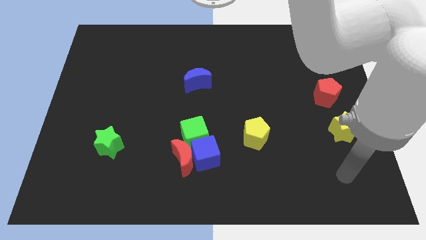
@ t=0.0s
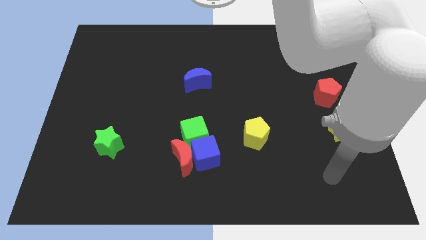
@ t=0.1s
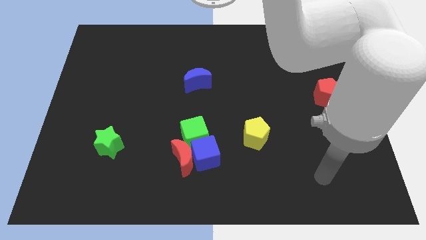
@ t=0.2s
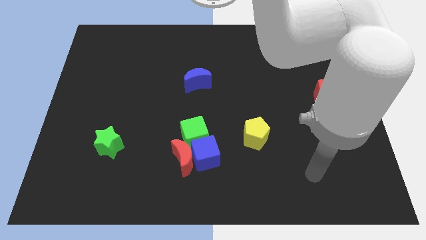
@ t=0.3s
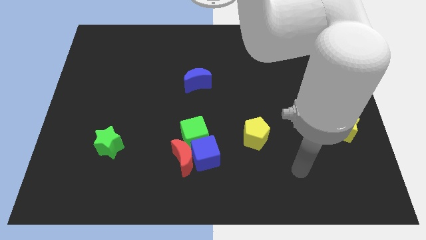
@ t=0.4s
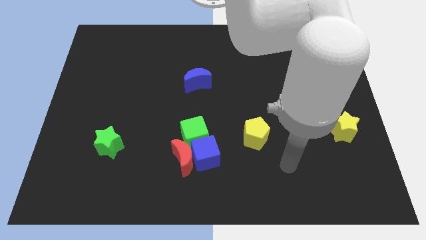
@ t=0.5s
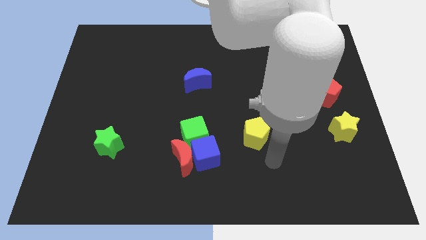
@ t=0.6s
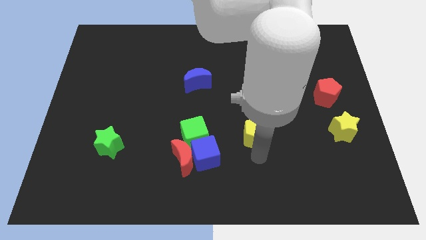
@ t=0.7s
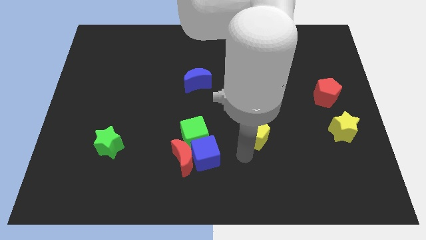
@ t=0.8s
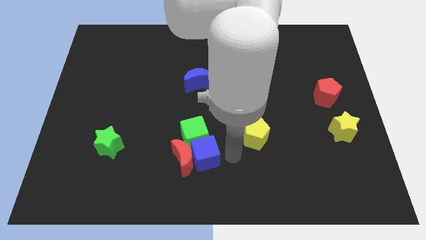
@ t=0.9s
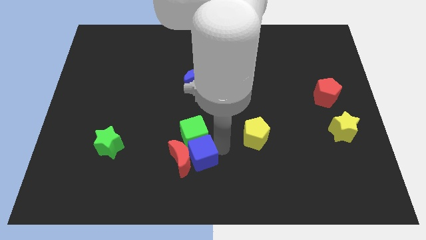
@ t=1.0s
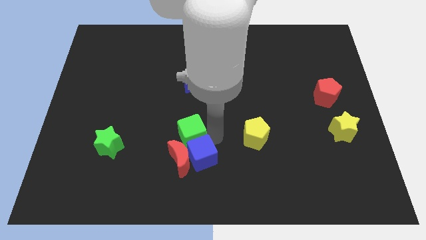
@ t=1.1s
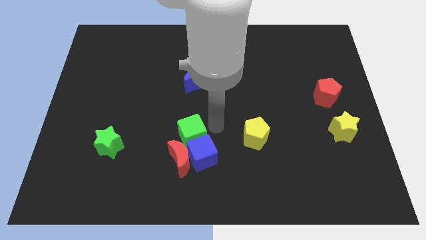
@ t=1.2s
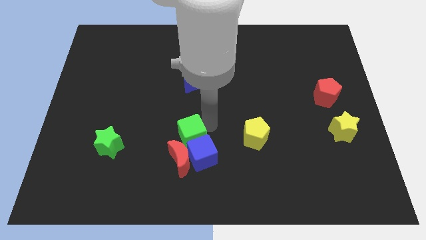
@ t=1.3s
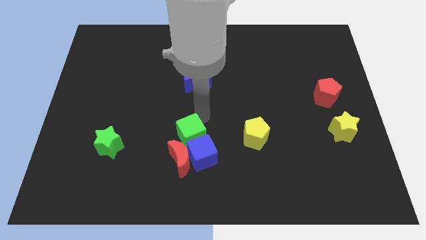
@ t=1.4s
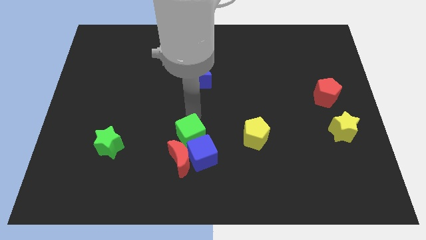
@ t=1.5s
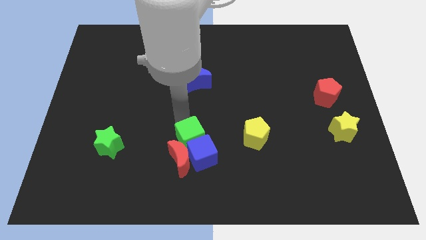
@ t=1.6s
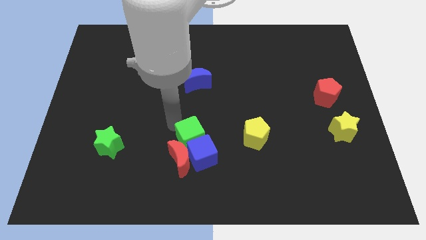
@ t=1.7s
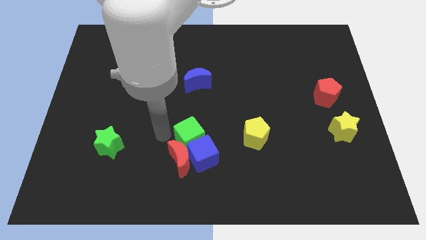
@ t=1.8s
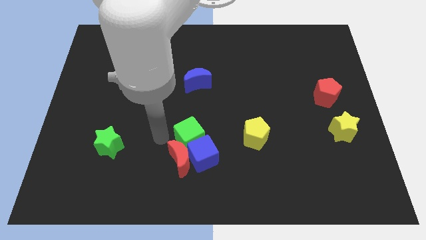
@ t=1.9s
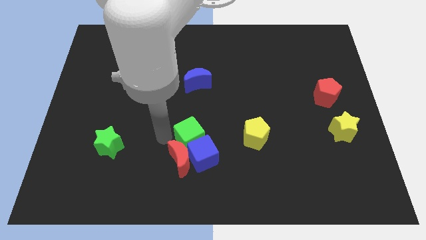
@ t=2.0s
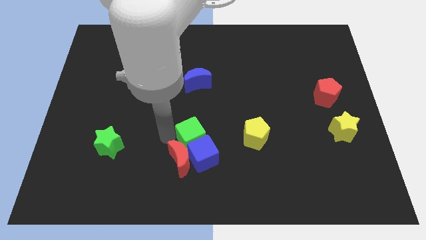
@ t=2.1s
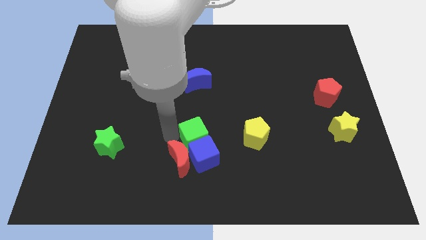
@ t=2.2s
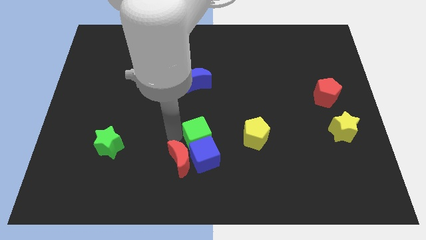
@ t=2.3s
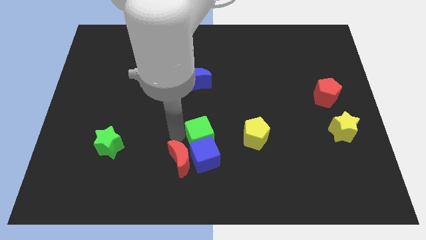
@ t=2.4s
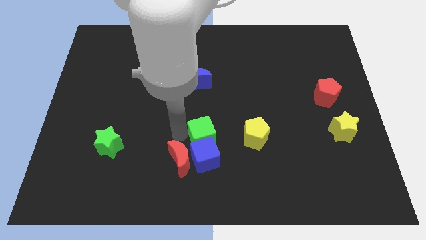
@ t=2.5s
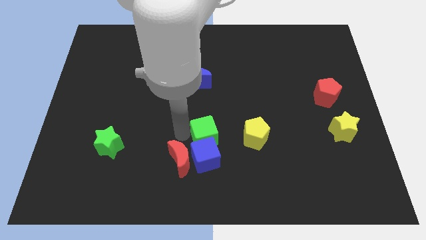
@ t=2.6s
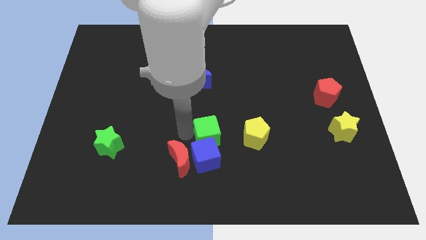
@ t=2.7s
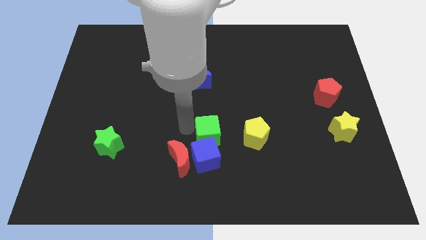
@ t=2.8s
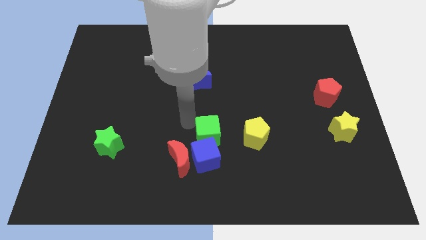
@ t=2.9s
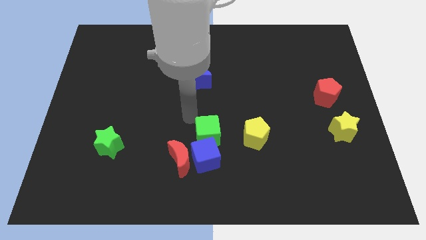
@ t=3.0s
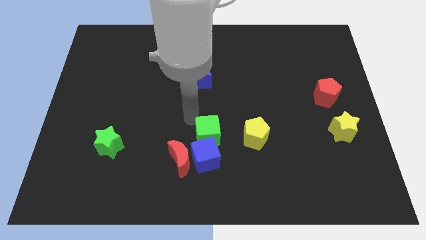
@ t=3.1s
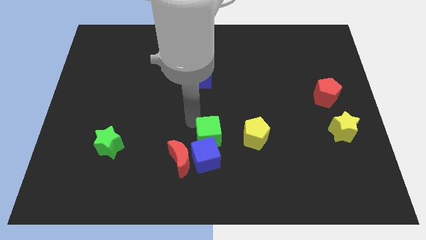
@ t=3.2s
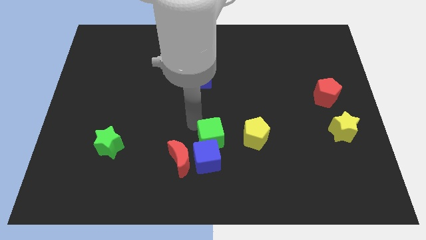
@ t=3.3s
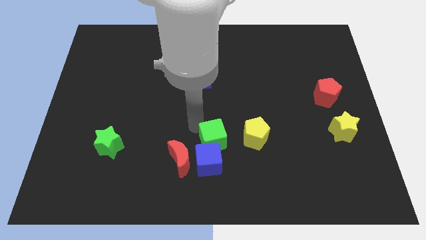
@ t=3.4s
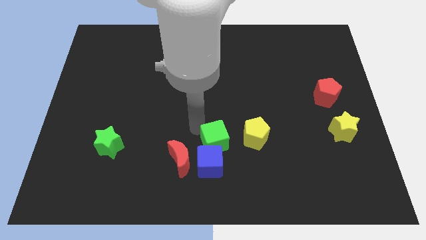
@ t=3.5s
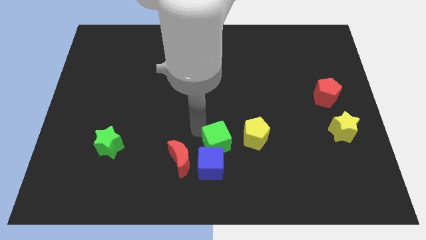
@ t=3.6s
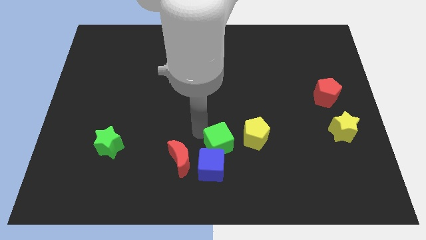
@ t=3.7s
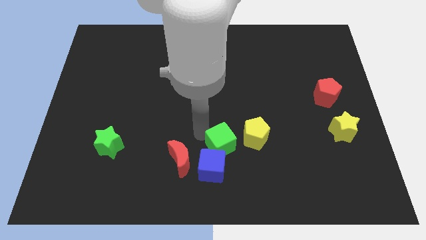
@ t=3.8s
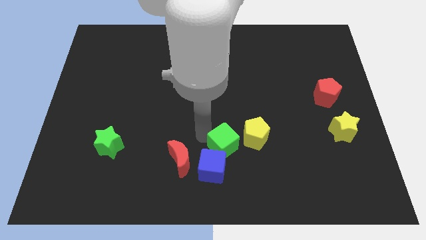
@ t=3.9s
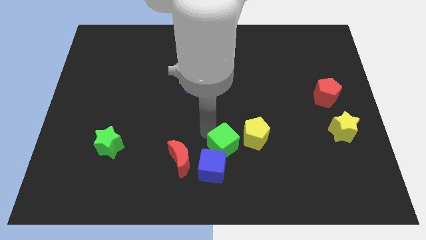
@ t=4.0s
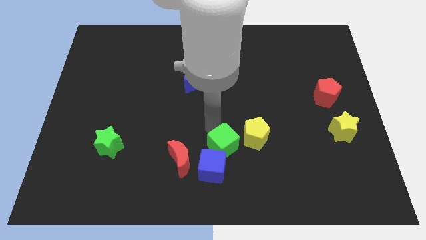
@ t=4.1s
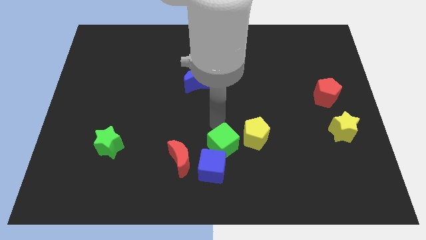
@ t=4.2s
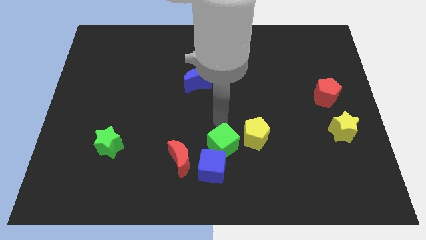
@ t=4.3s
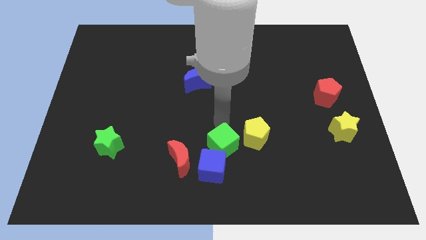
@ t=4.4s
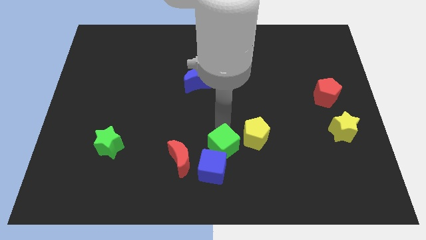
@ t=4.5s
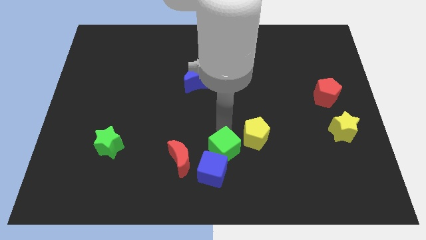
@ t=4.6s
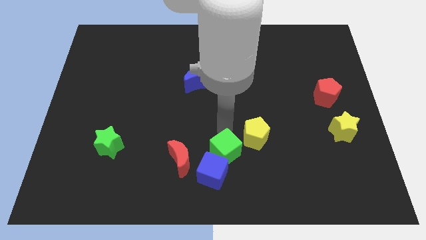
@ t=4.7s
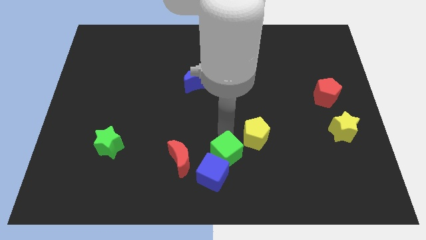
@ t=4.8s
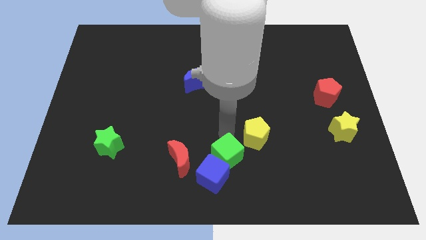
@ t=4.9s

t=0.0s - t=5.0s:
move the green cube to the bottom side

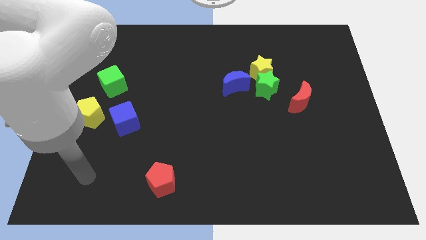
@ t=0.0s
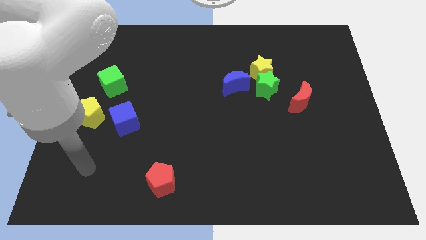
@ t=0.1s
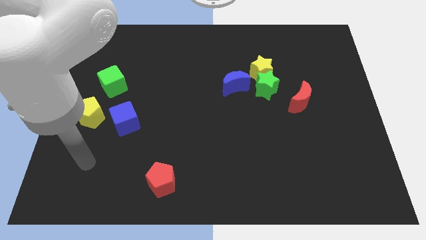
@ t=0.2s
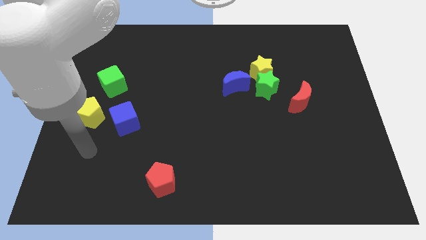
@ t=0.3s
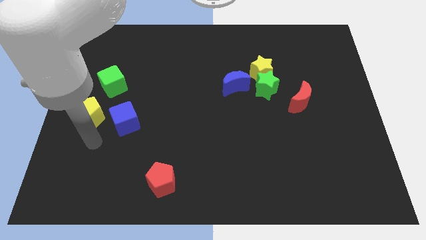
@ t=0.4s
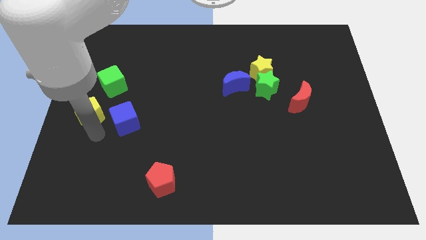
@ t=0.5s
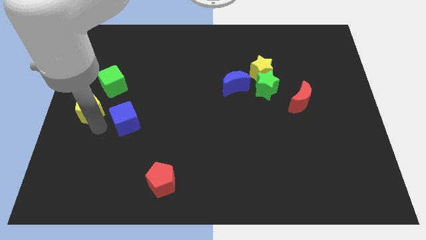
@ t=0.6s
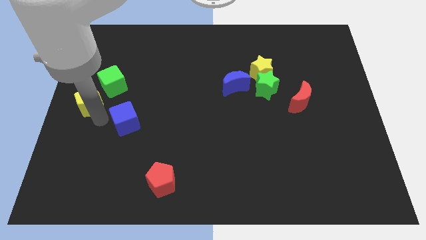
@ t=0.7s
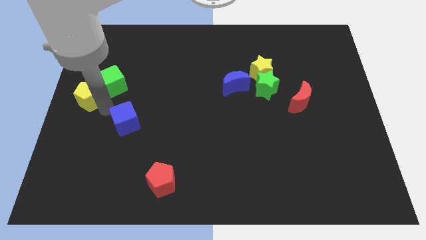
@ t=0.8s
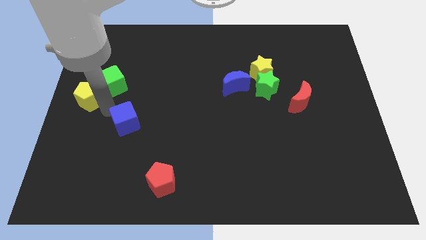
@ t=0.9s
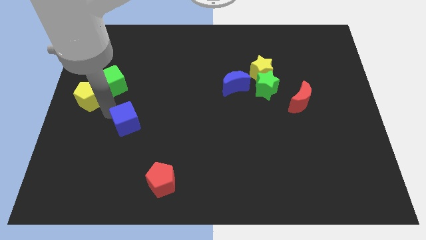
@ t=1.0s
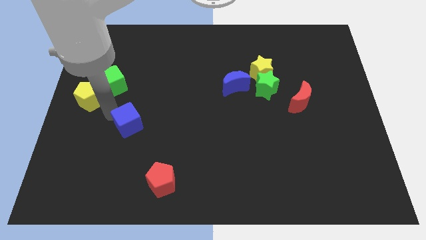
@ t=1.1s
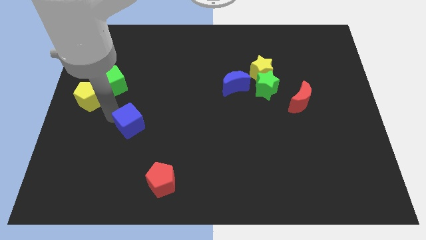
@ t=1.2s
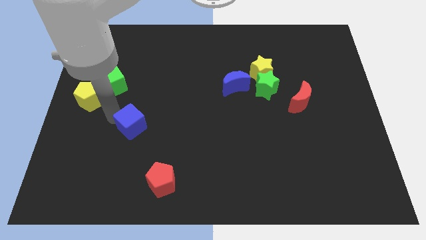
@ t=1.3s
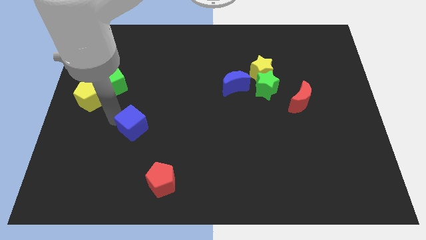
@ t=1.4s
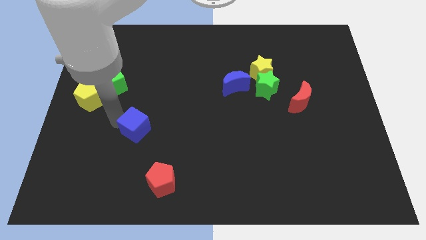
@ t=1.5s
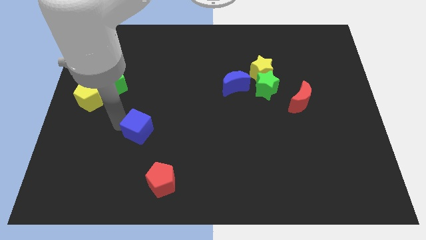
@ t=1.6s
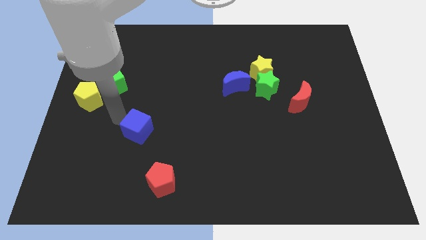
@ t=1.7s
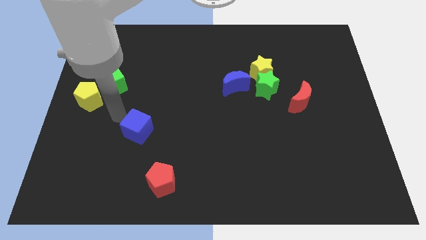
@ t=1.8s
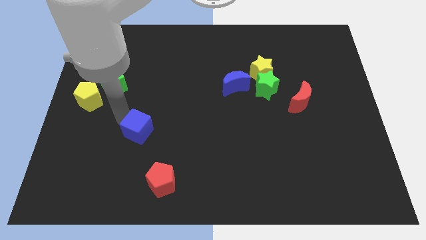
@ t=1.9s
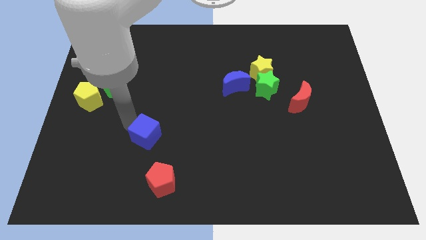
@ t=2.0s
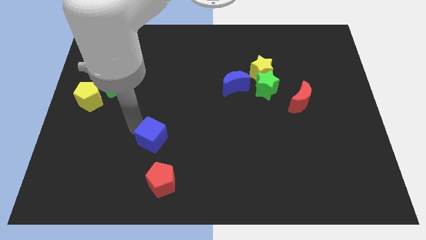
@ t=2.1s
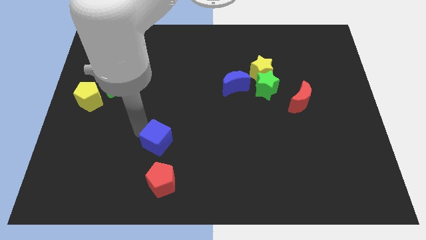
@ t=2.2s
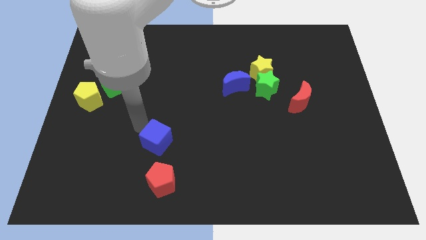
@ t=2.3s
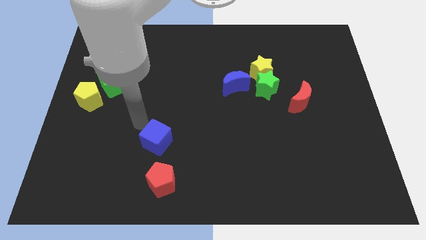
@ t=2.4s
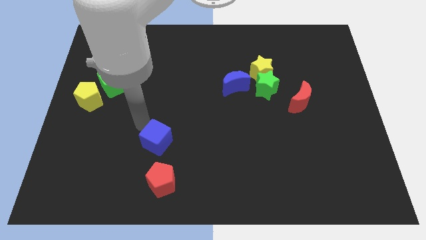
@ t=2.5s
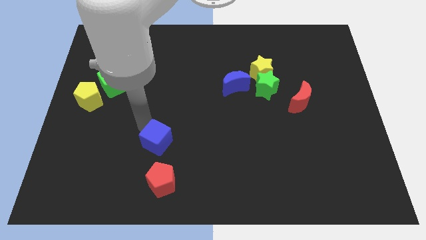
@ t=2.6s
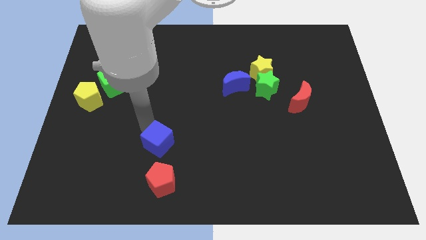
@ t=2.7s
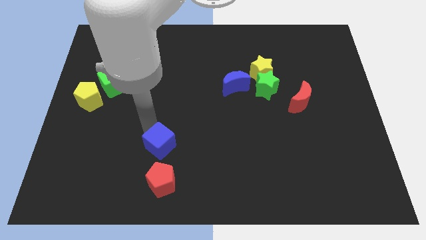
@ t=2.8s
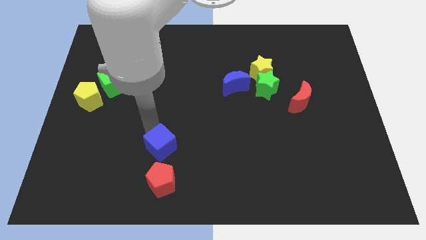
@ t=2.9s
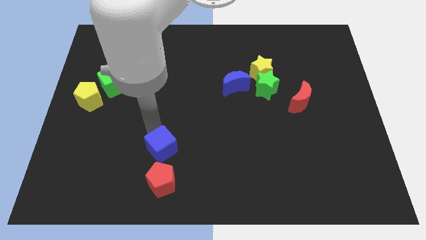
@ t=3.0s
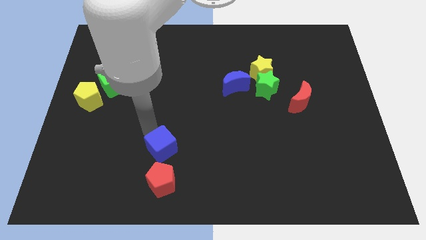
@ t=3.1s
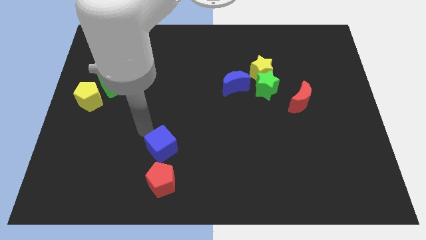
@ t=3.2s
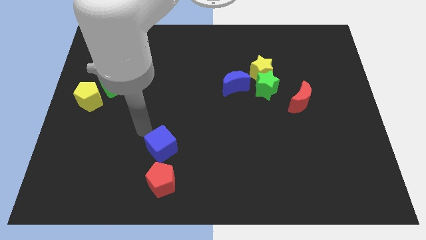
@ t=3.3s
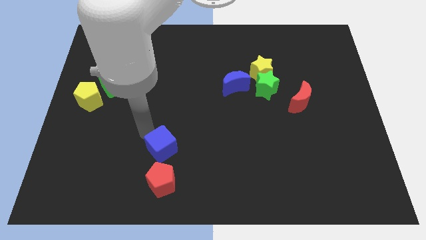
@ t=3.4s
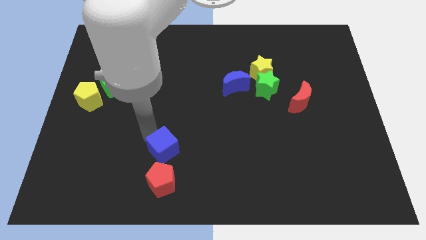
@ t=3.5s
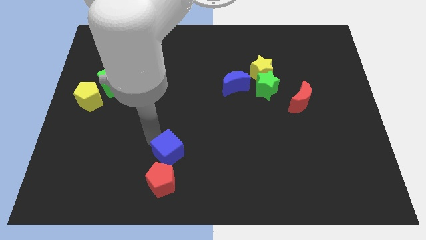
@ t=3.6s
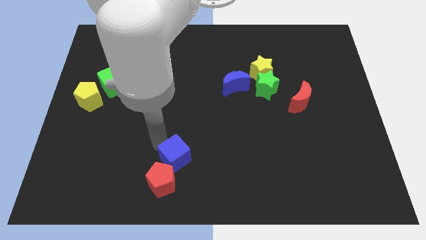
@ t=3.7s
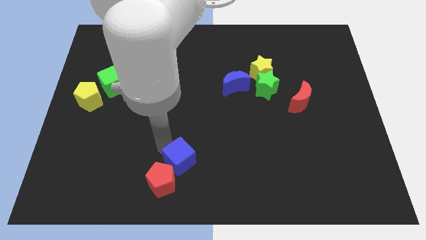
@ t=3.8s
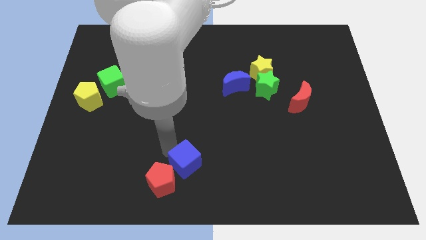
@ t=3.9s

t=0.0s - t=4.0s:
push the blue cube to the bottom side
